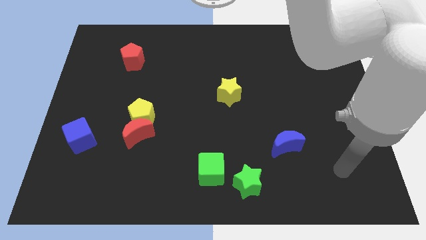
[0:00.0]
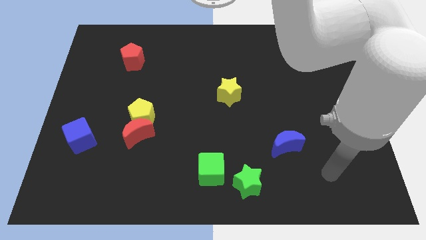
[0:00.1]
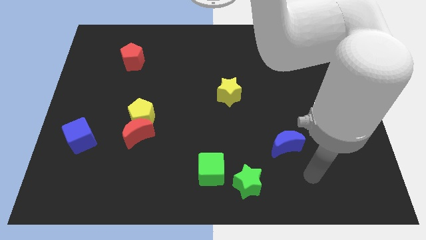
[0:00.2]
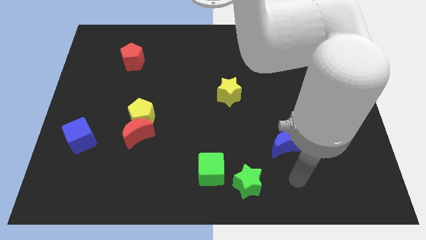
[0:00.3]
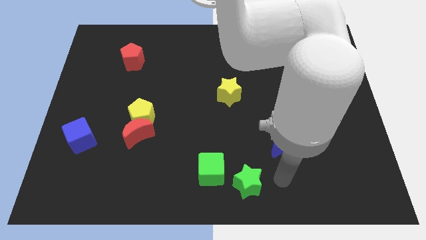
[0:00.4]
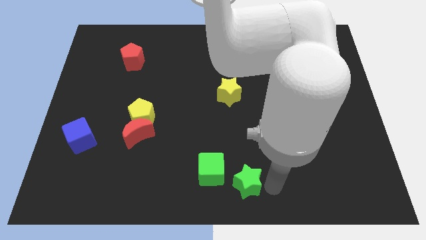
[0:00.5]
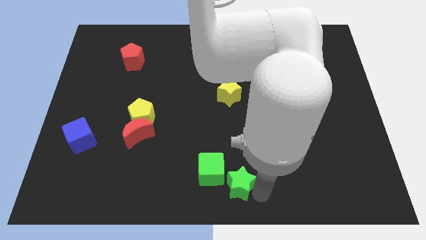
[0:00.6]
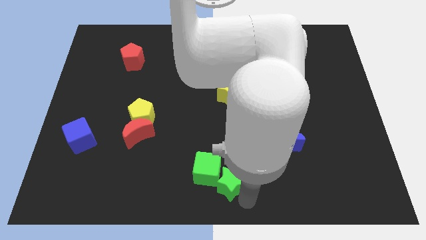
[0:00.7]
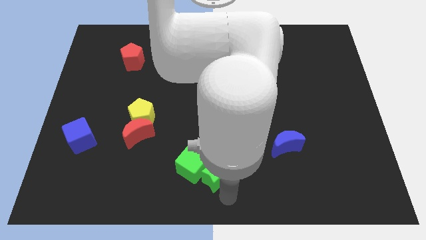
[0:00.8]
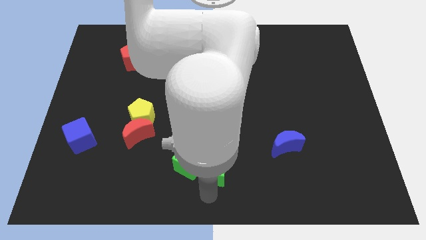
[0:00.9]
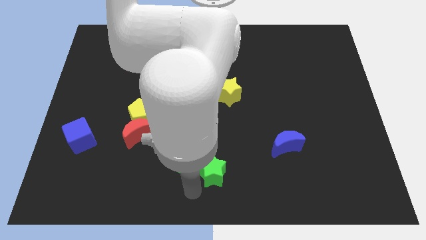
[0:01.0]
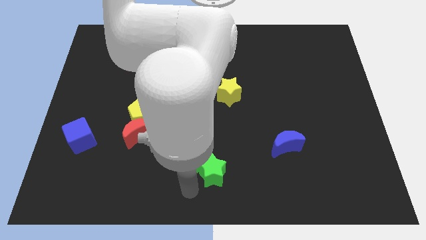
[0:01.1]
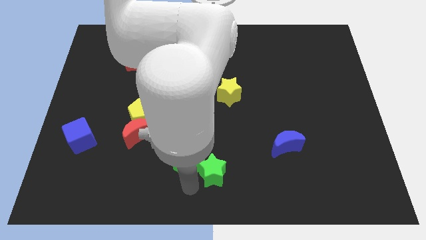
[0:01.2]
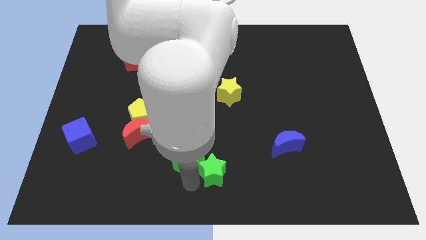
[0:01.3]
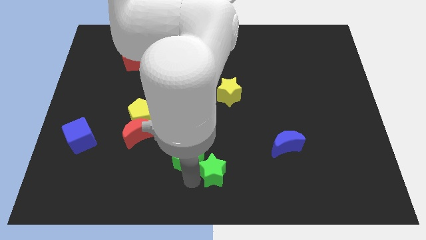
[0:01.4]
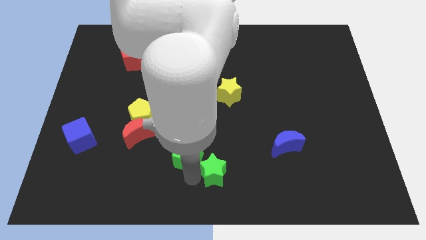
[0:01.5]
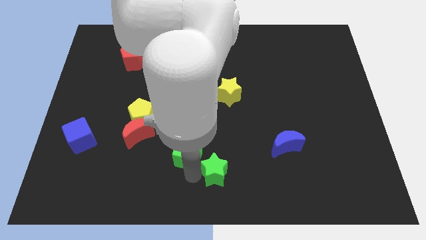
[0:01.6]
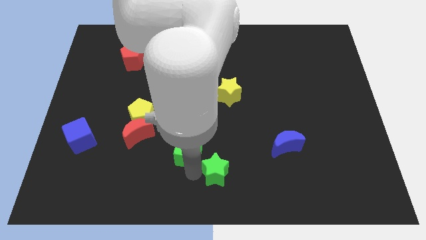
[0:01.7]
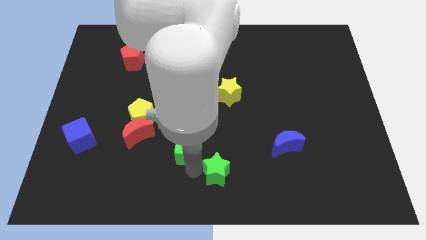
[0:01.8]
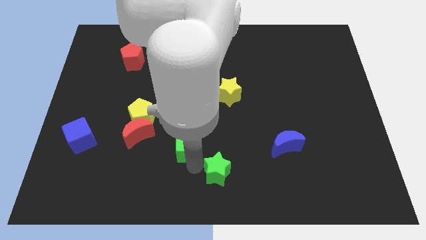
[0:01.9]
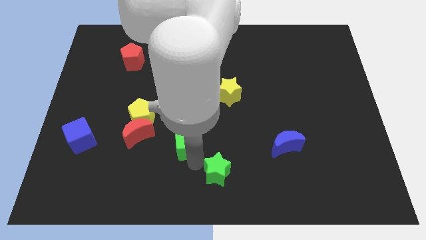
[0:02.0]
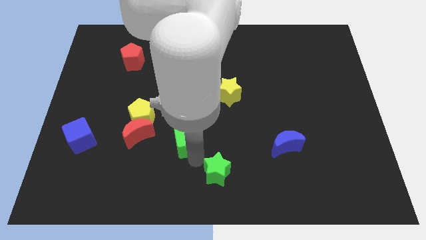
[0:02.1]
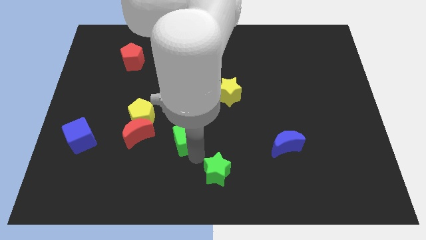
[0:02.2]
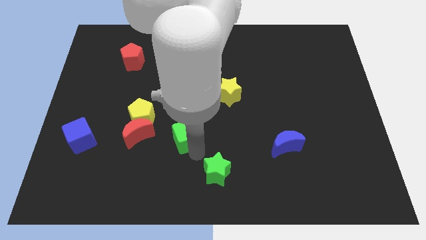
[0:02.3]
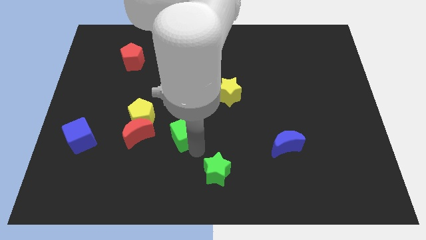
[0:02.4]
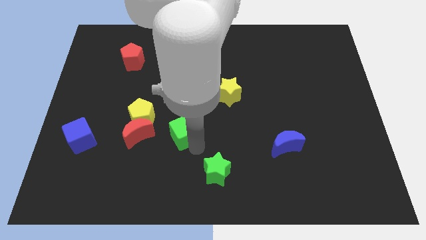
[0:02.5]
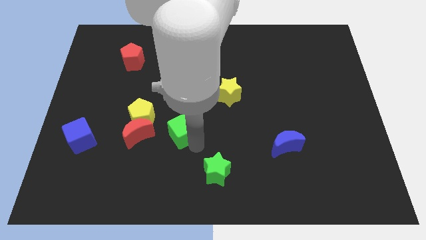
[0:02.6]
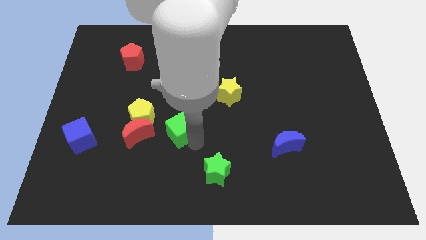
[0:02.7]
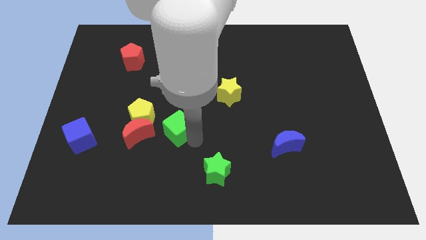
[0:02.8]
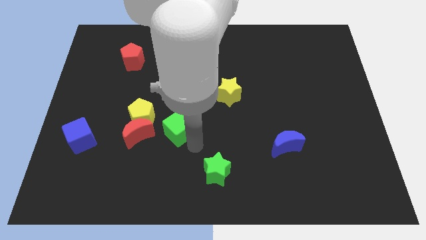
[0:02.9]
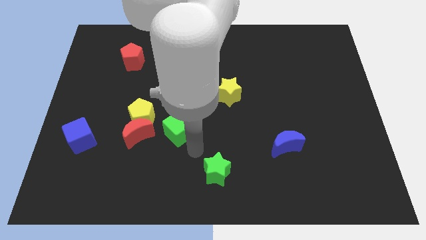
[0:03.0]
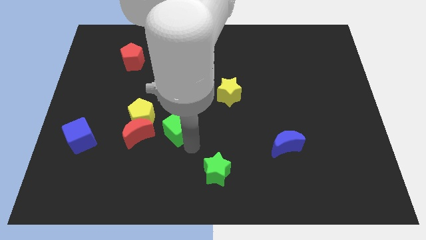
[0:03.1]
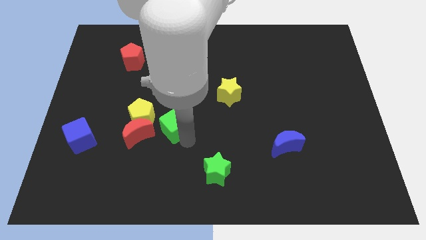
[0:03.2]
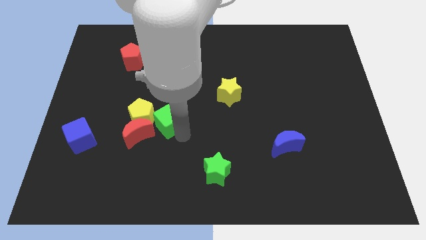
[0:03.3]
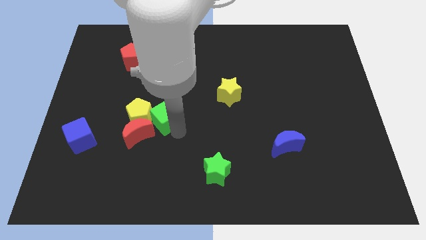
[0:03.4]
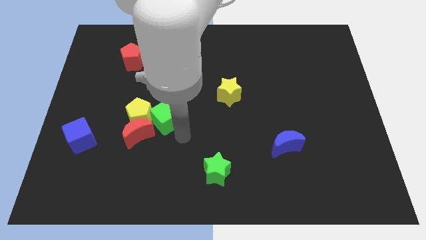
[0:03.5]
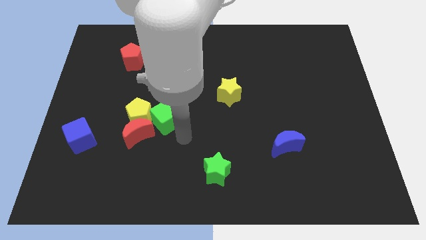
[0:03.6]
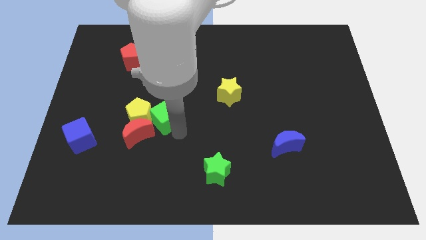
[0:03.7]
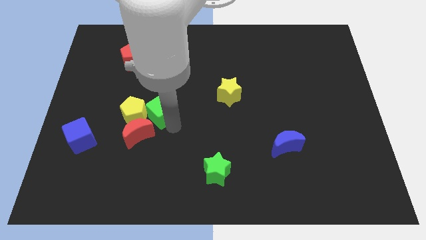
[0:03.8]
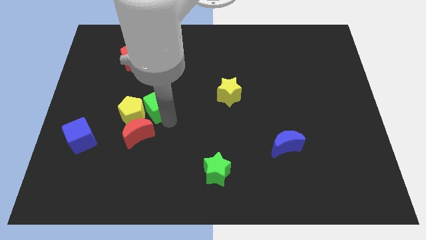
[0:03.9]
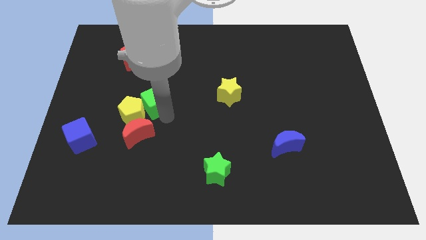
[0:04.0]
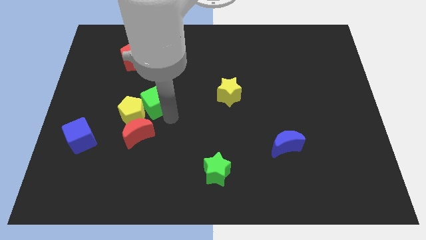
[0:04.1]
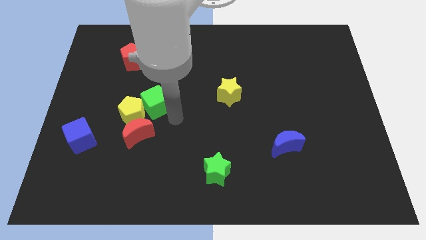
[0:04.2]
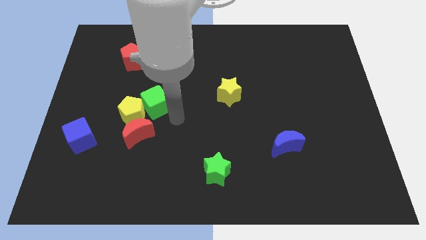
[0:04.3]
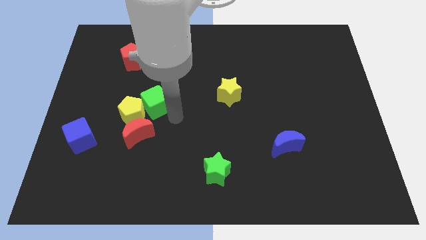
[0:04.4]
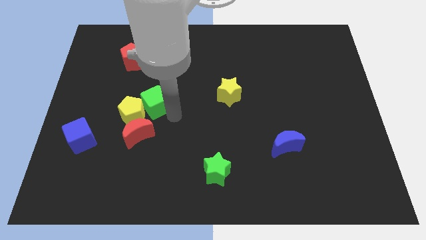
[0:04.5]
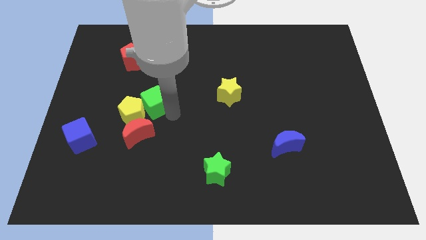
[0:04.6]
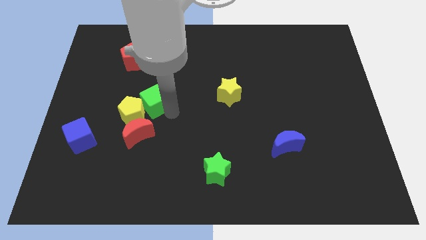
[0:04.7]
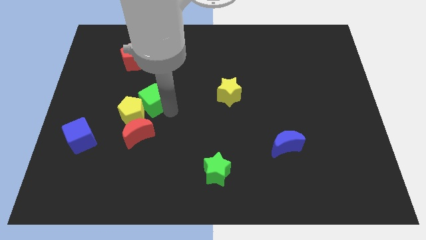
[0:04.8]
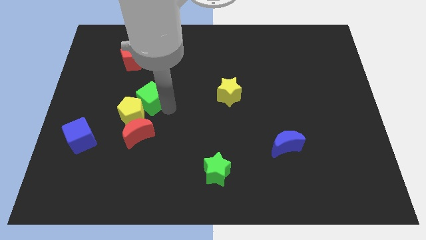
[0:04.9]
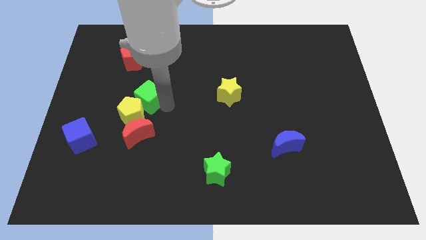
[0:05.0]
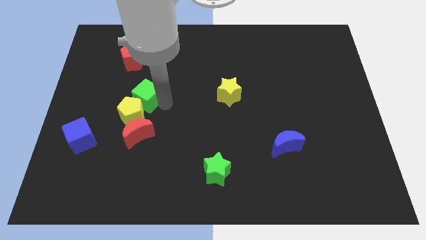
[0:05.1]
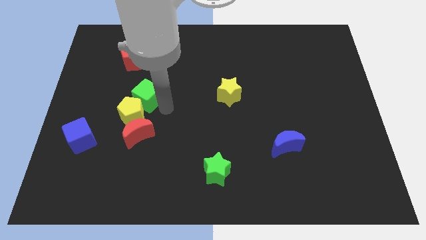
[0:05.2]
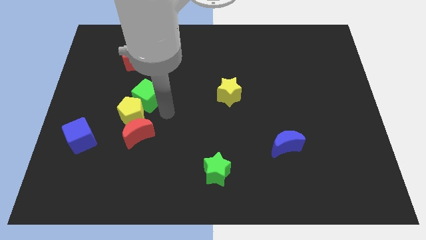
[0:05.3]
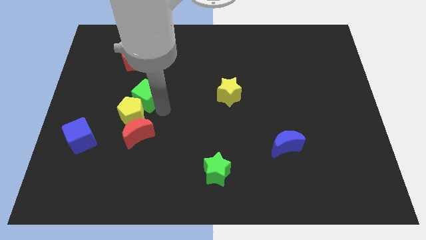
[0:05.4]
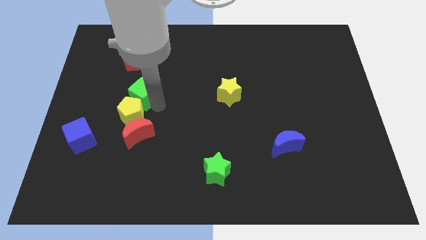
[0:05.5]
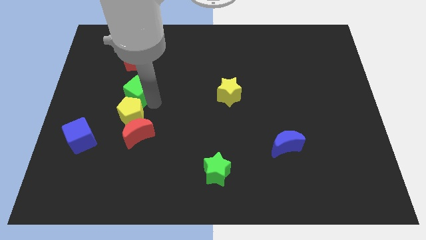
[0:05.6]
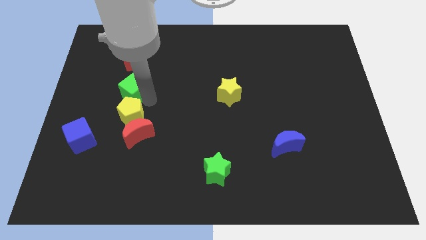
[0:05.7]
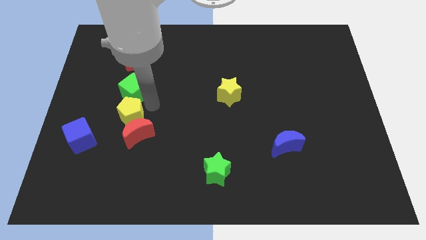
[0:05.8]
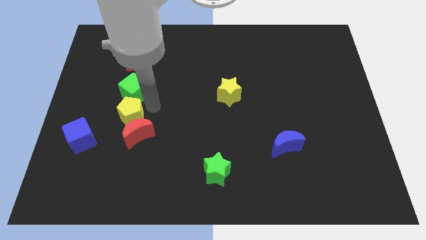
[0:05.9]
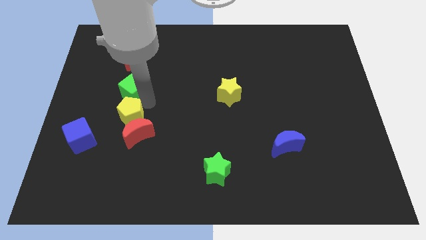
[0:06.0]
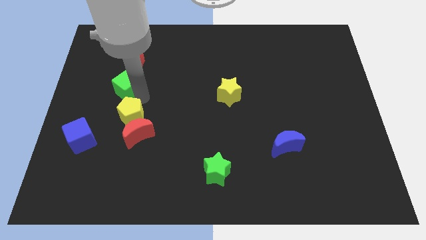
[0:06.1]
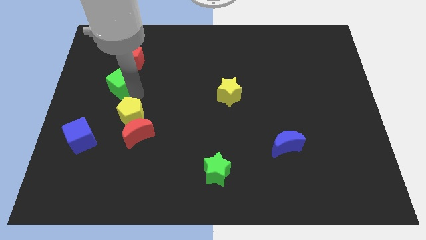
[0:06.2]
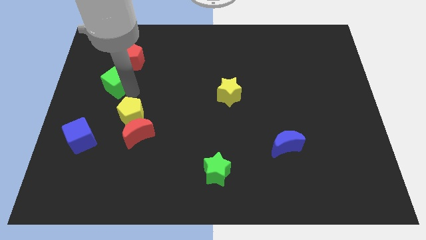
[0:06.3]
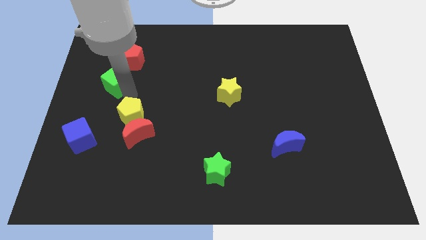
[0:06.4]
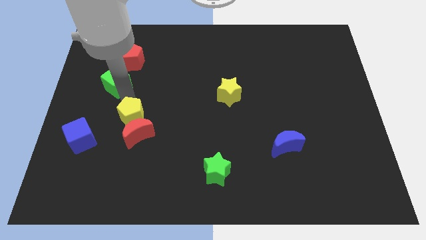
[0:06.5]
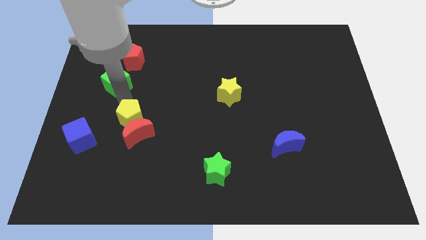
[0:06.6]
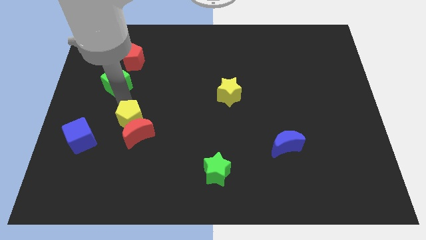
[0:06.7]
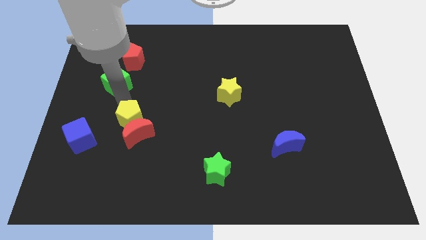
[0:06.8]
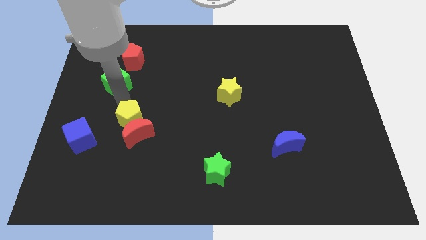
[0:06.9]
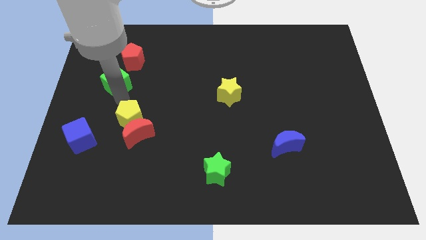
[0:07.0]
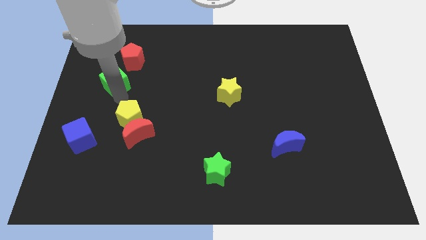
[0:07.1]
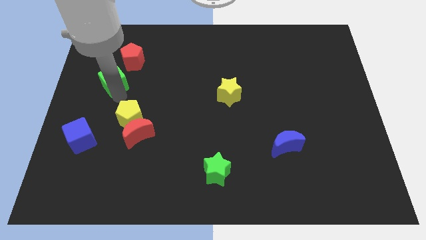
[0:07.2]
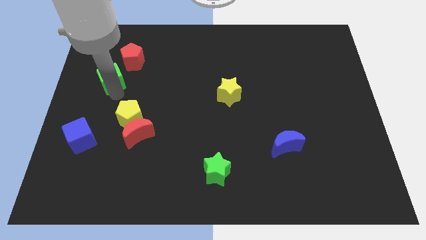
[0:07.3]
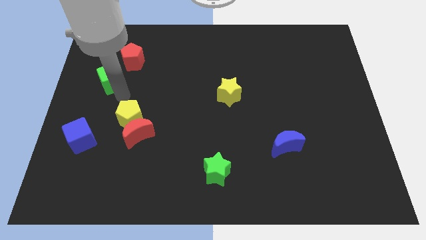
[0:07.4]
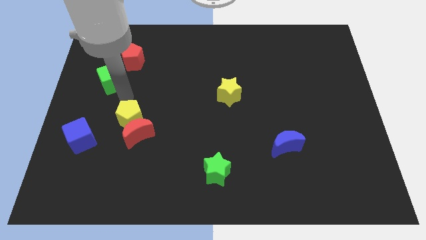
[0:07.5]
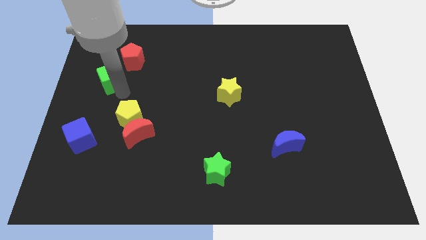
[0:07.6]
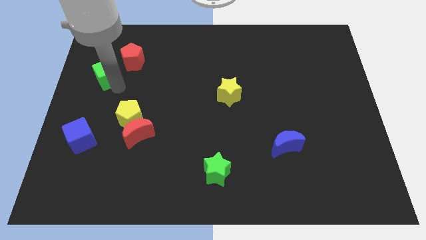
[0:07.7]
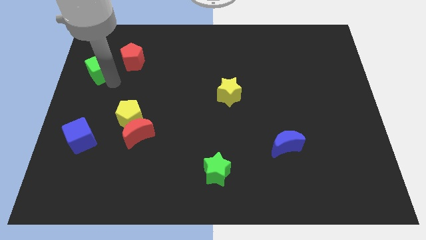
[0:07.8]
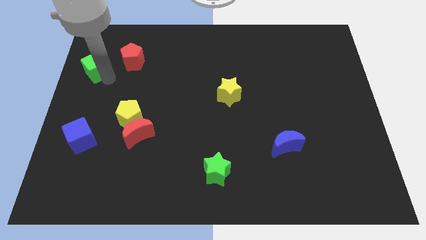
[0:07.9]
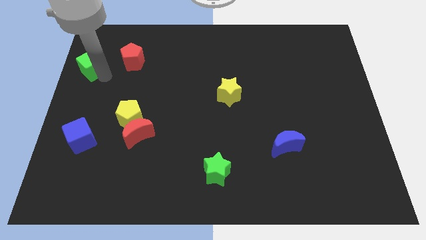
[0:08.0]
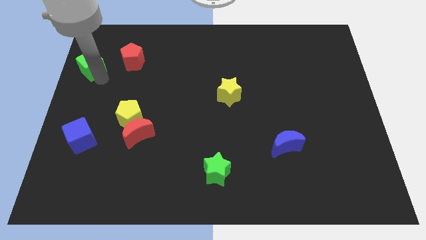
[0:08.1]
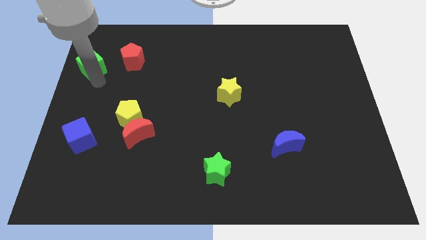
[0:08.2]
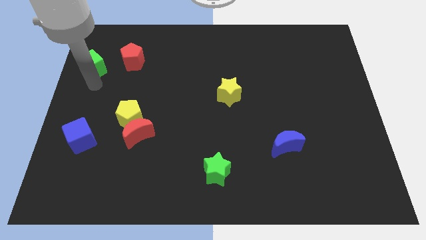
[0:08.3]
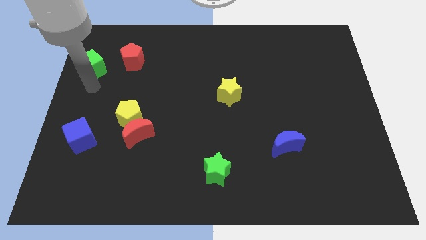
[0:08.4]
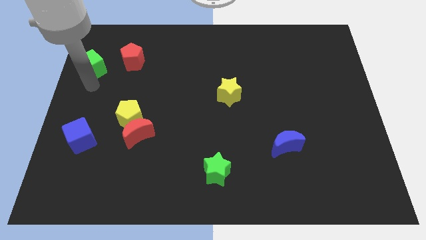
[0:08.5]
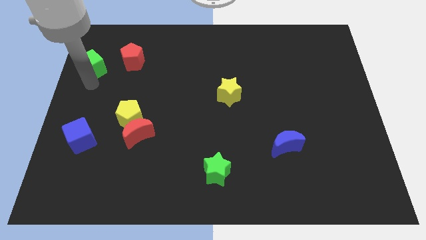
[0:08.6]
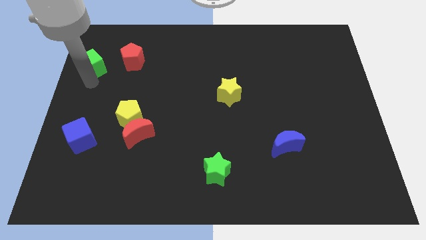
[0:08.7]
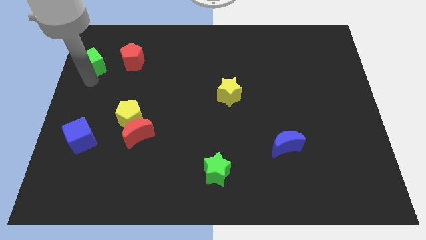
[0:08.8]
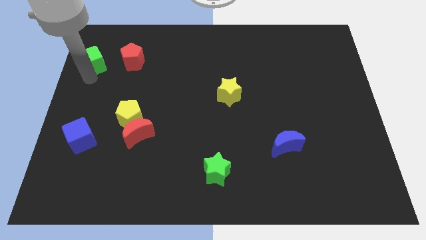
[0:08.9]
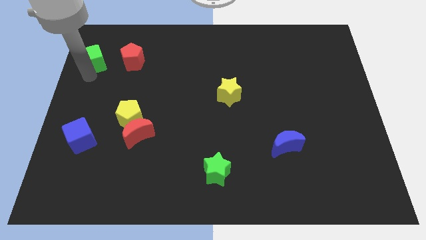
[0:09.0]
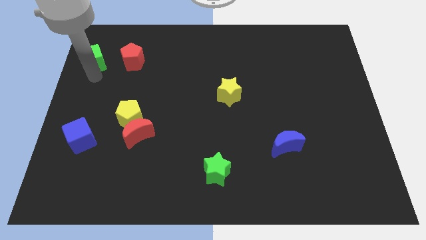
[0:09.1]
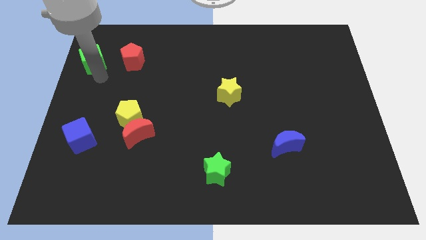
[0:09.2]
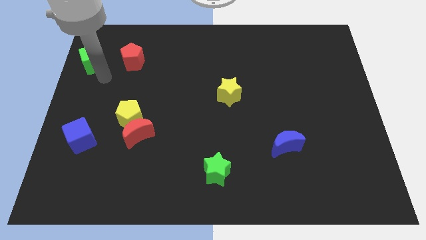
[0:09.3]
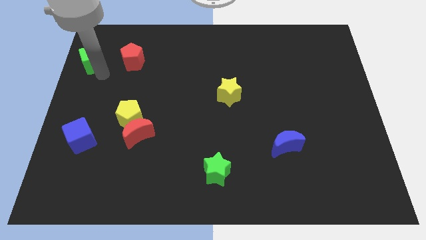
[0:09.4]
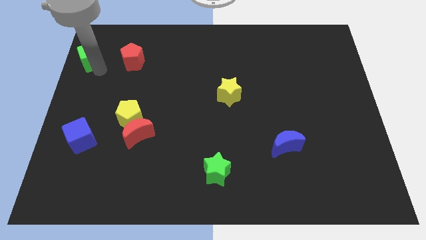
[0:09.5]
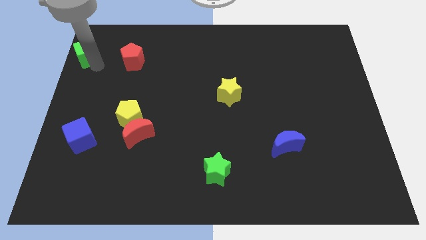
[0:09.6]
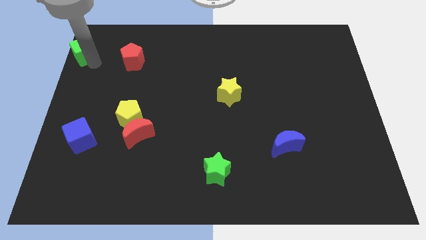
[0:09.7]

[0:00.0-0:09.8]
slide the green cube to the top left of the board
